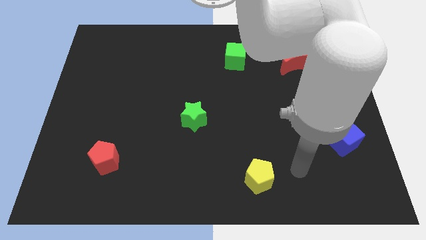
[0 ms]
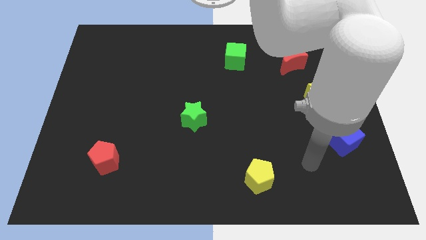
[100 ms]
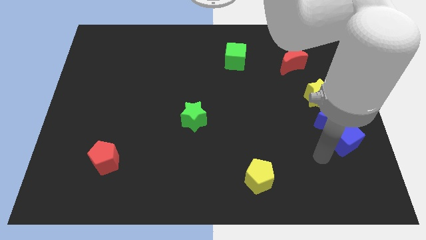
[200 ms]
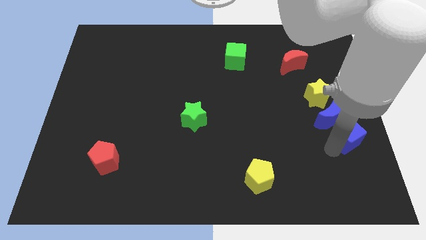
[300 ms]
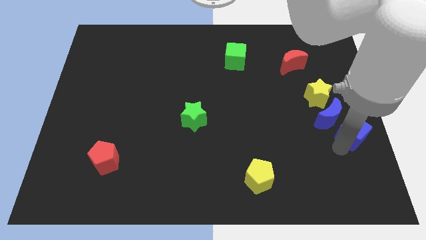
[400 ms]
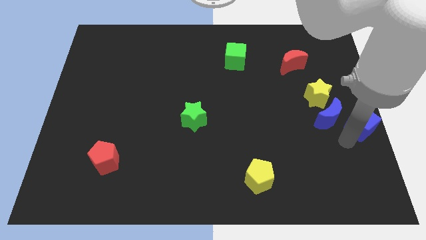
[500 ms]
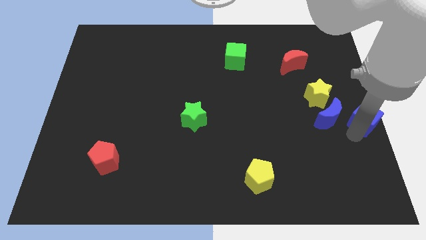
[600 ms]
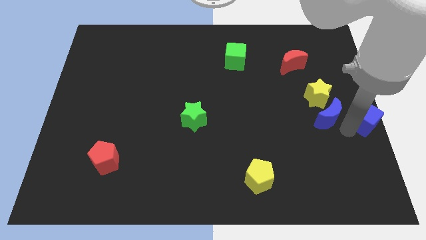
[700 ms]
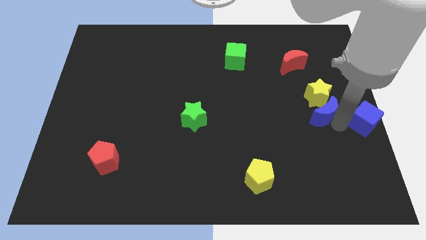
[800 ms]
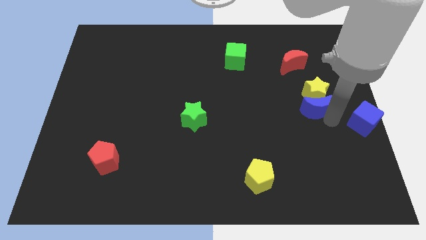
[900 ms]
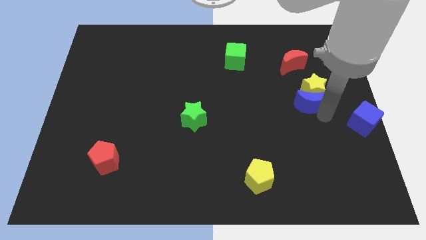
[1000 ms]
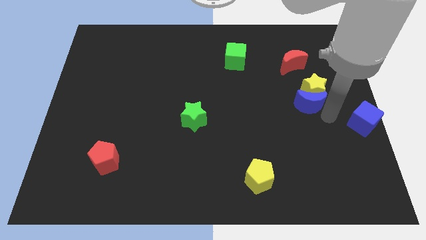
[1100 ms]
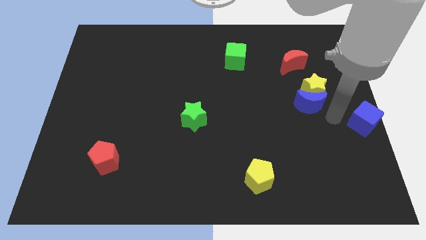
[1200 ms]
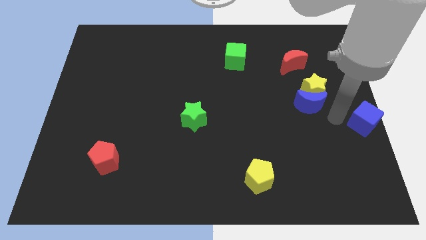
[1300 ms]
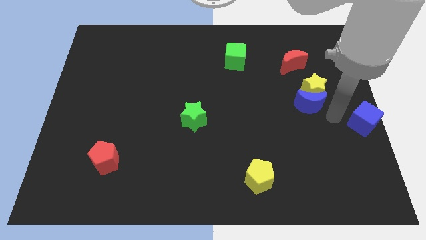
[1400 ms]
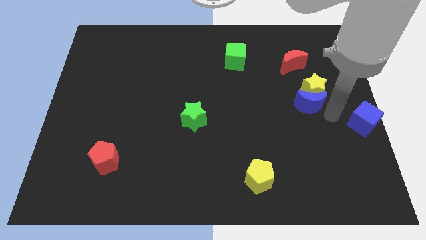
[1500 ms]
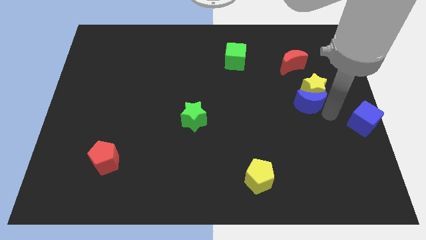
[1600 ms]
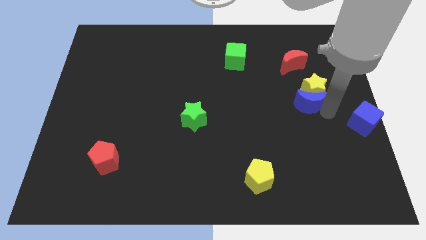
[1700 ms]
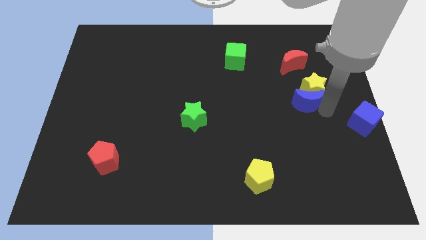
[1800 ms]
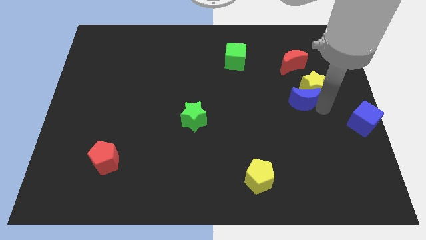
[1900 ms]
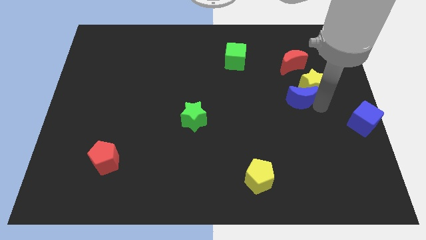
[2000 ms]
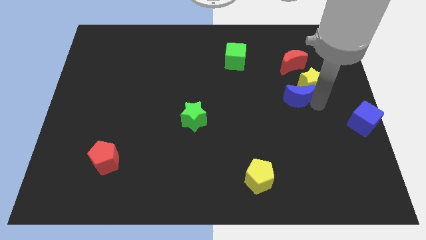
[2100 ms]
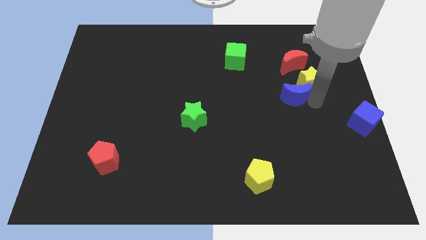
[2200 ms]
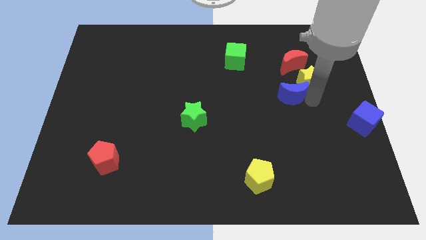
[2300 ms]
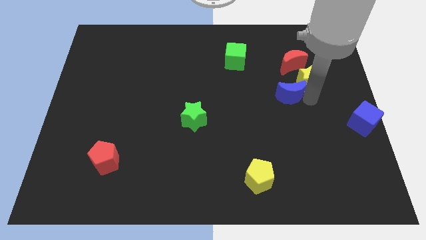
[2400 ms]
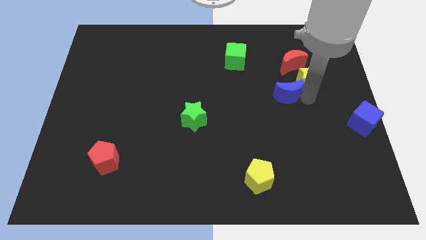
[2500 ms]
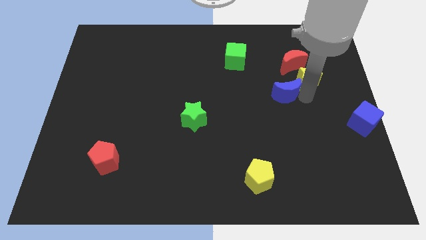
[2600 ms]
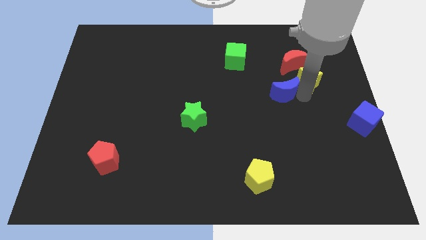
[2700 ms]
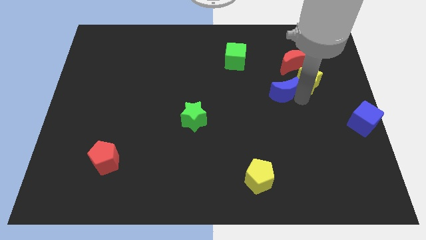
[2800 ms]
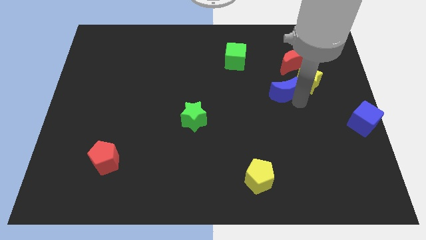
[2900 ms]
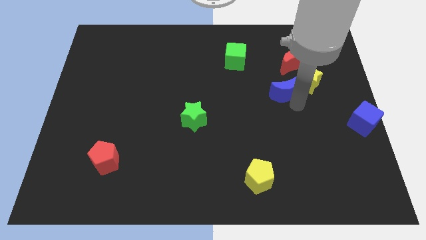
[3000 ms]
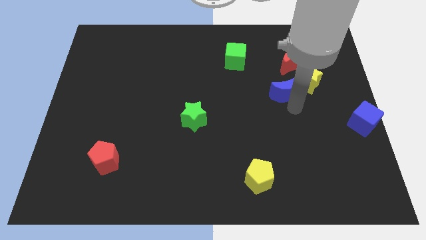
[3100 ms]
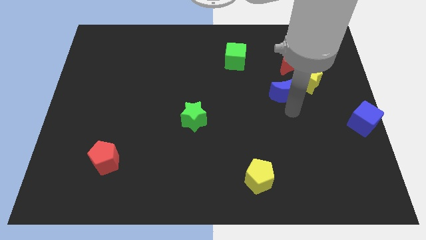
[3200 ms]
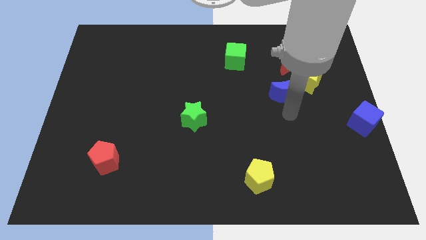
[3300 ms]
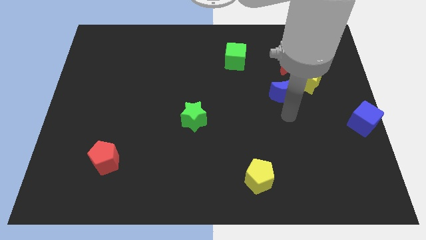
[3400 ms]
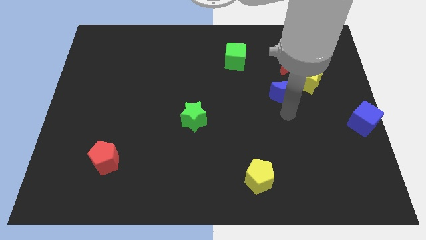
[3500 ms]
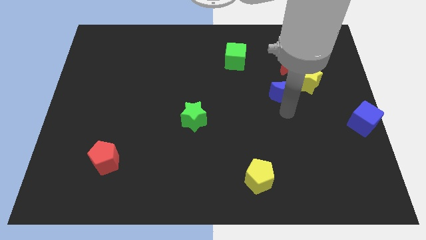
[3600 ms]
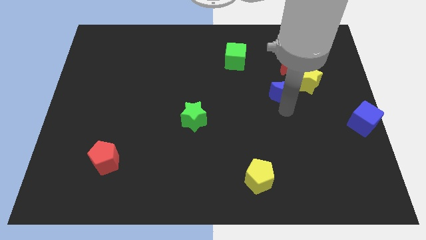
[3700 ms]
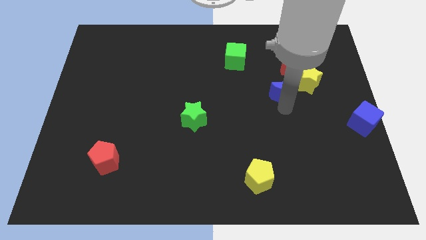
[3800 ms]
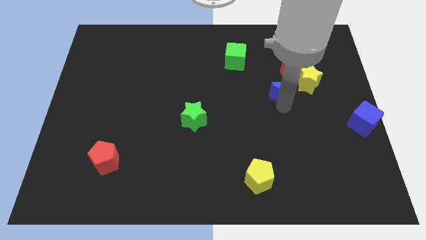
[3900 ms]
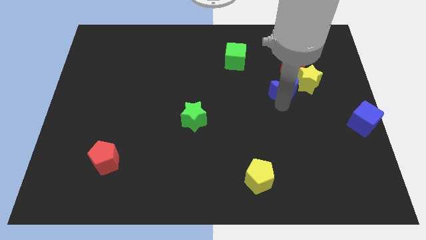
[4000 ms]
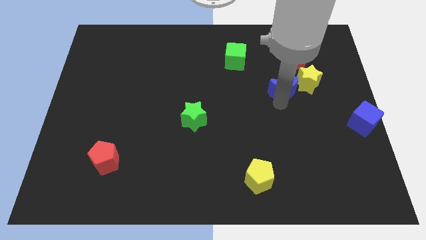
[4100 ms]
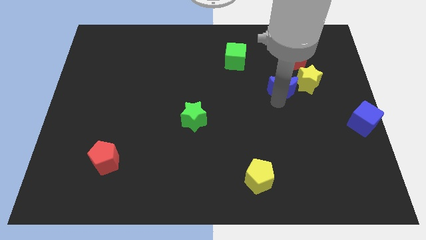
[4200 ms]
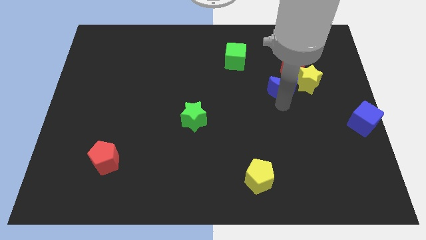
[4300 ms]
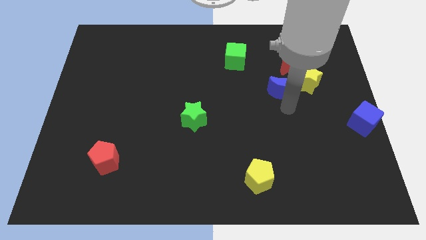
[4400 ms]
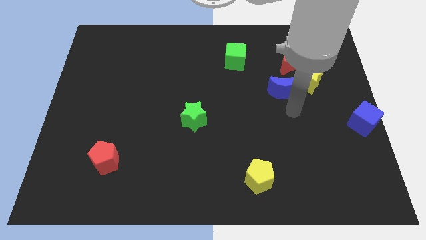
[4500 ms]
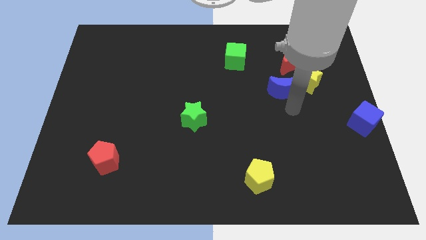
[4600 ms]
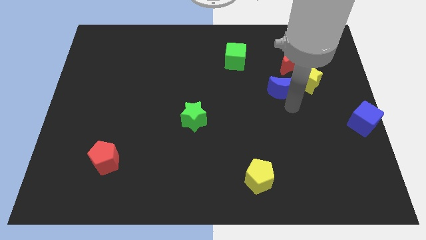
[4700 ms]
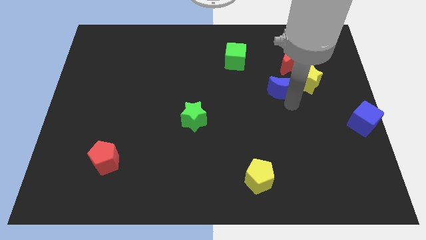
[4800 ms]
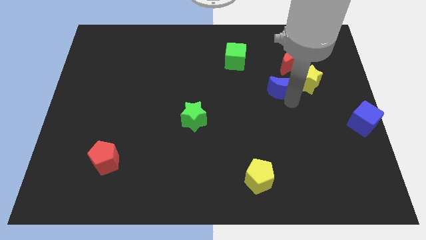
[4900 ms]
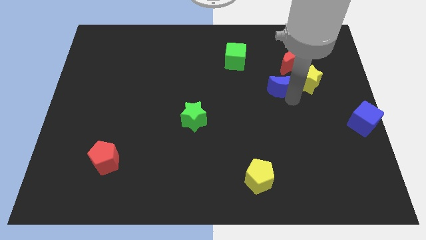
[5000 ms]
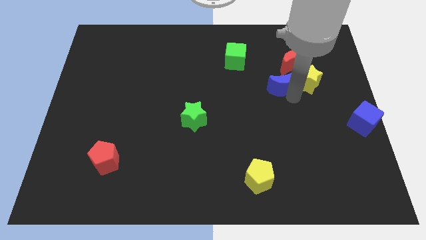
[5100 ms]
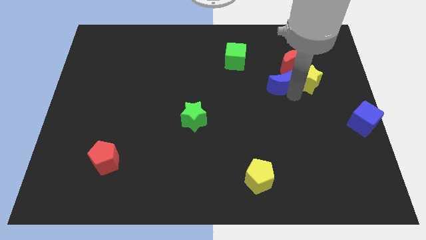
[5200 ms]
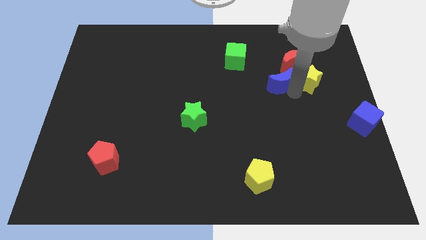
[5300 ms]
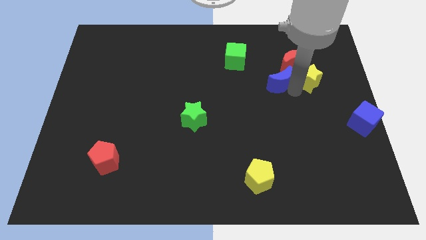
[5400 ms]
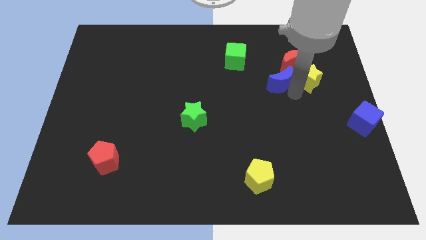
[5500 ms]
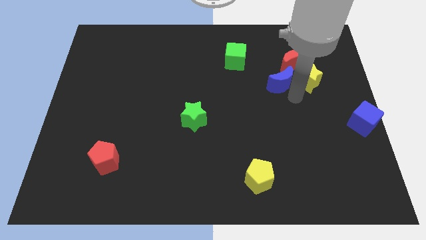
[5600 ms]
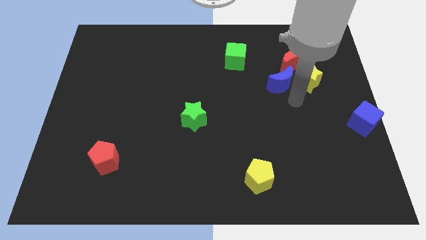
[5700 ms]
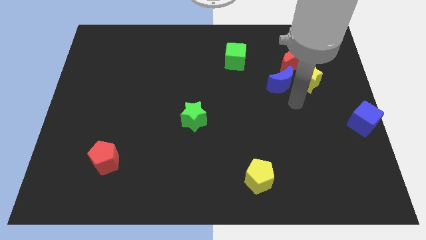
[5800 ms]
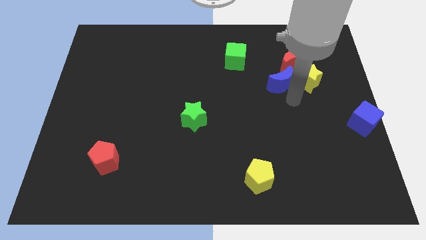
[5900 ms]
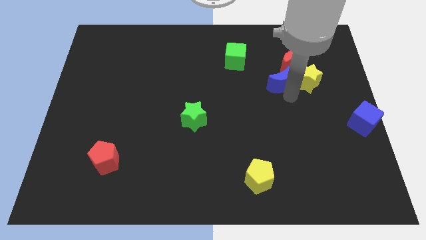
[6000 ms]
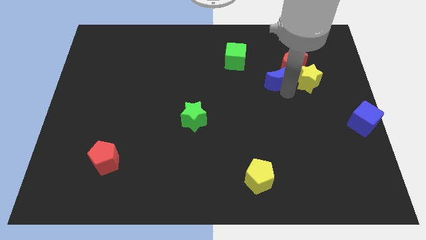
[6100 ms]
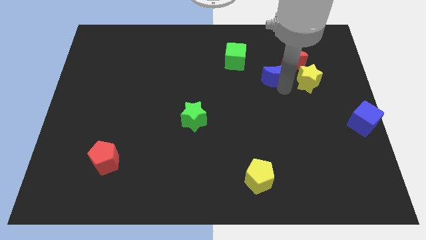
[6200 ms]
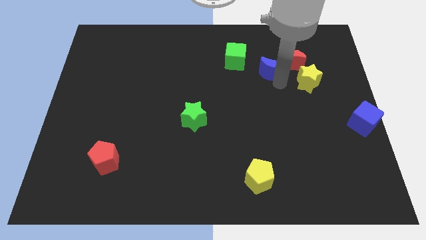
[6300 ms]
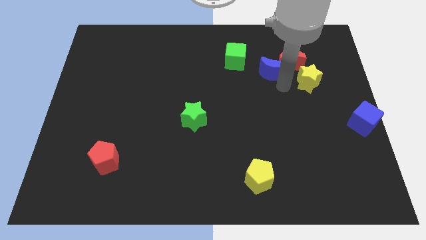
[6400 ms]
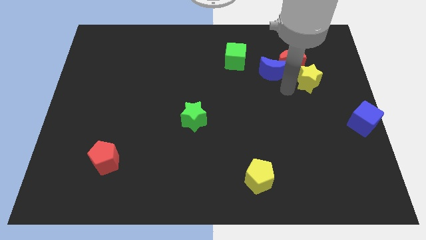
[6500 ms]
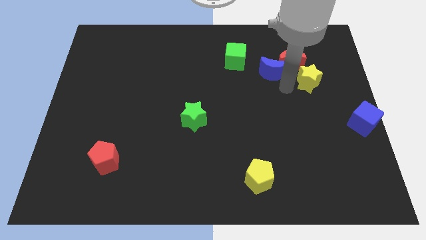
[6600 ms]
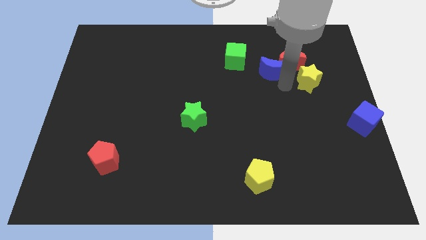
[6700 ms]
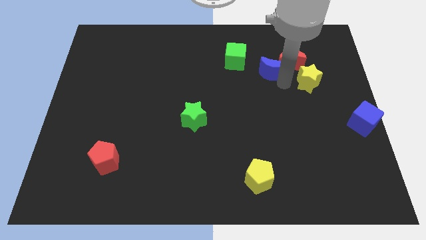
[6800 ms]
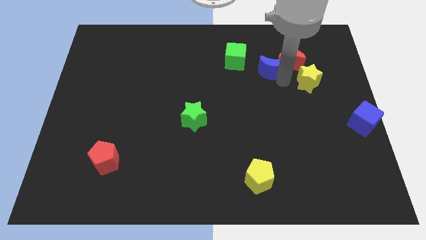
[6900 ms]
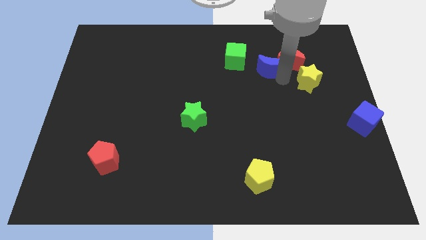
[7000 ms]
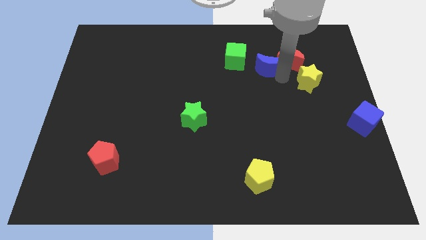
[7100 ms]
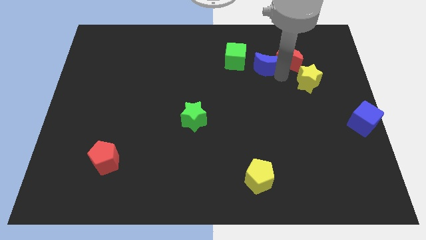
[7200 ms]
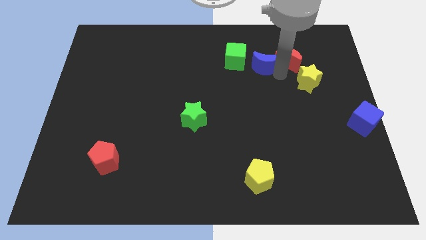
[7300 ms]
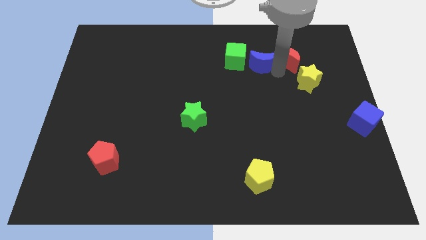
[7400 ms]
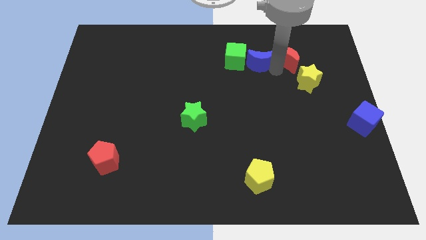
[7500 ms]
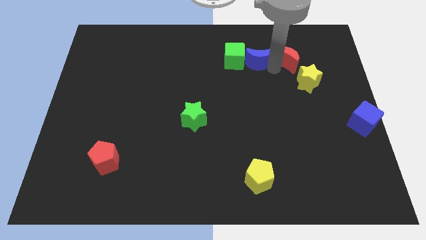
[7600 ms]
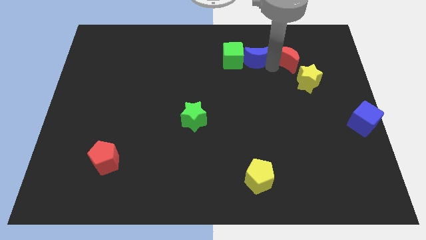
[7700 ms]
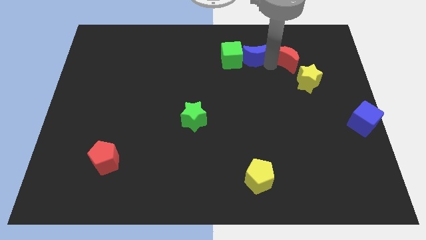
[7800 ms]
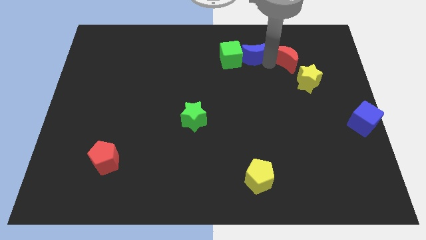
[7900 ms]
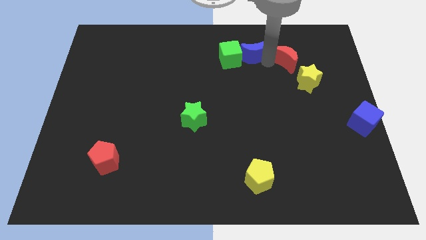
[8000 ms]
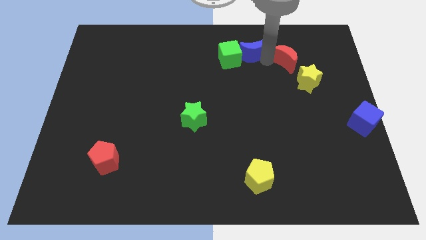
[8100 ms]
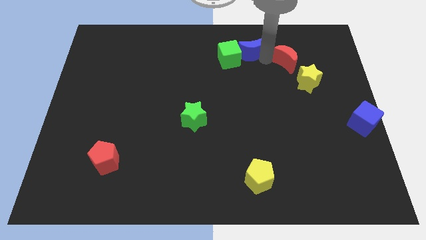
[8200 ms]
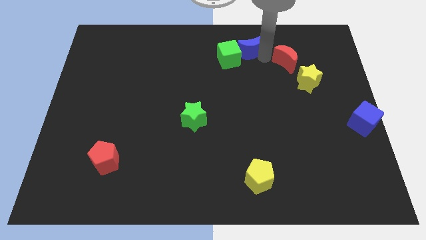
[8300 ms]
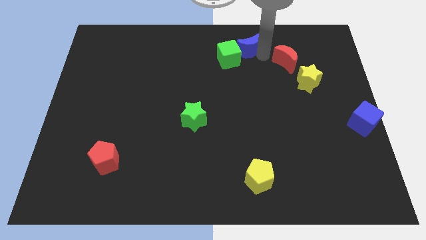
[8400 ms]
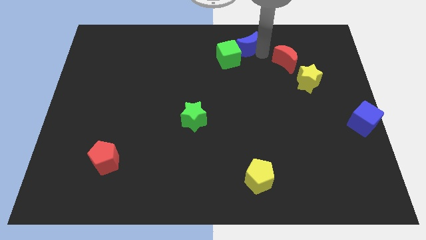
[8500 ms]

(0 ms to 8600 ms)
slide the blue moon to the top
